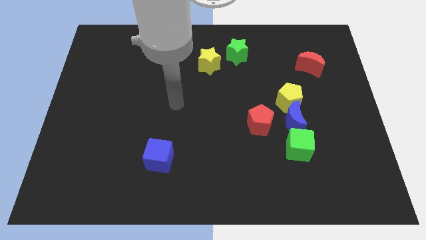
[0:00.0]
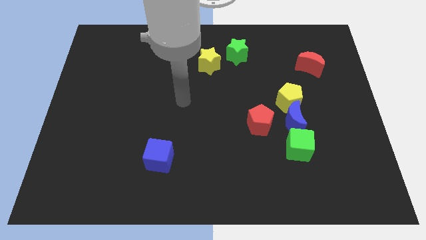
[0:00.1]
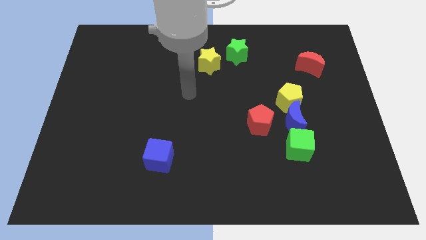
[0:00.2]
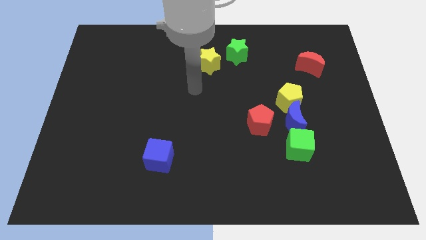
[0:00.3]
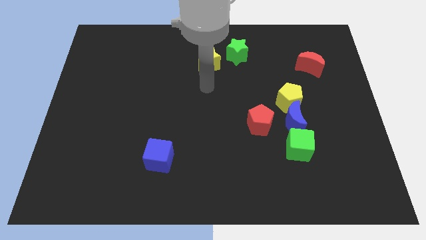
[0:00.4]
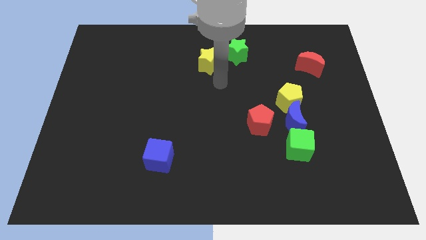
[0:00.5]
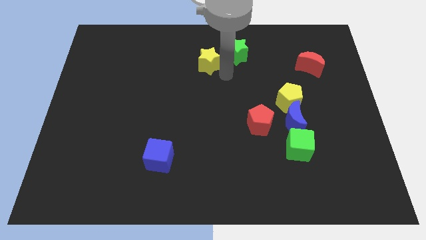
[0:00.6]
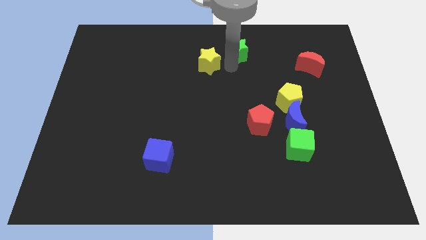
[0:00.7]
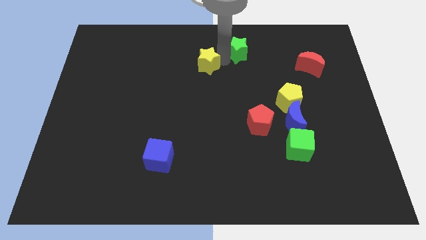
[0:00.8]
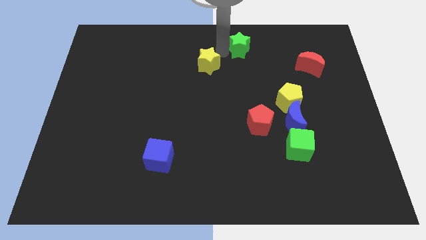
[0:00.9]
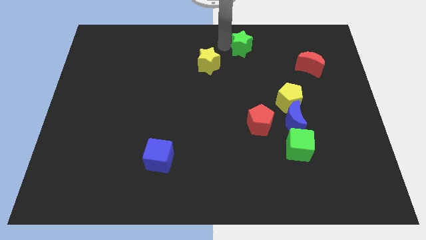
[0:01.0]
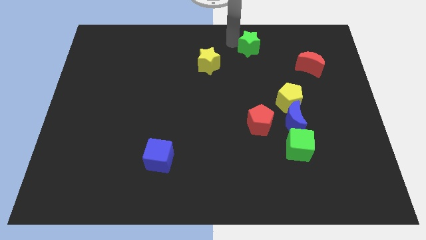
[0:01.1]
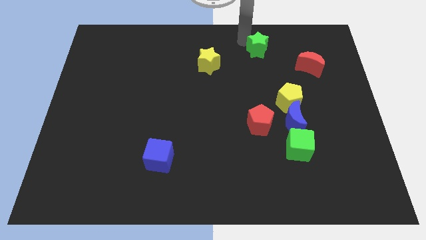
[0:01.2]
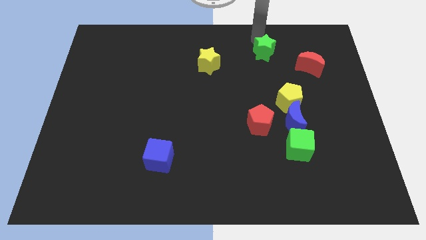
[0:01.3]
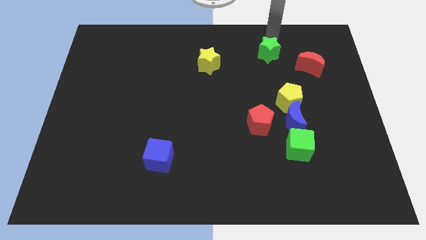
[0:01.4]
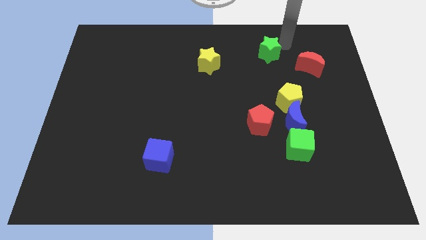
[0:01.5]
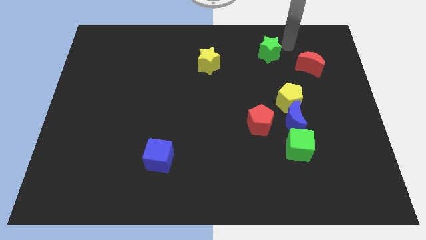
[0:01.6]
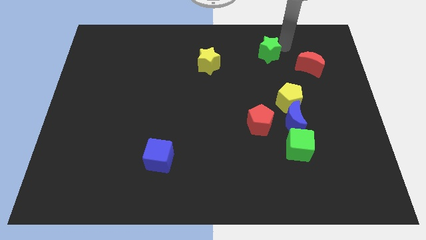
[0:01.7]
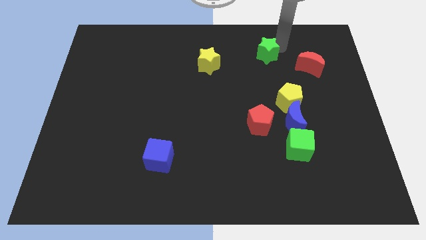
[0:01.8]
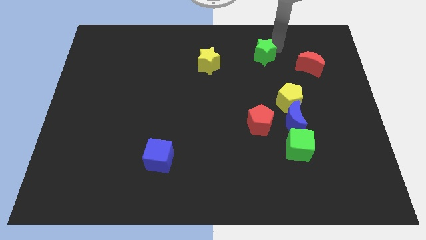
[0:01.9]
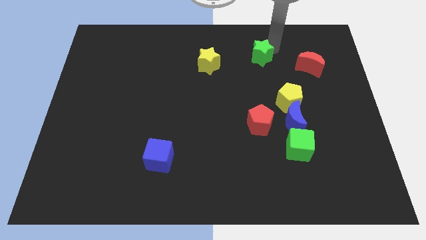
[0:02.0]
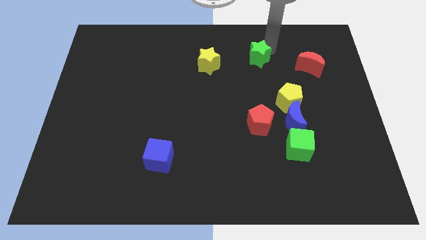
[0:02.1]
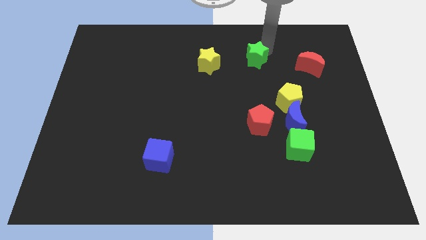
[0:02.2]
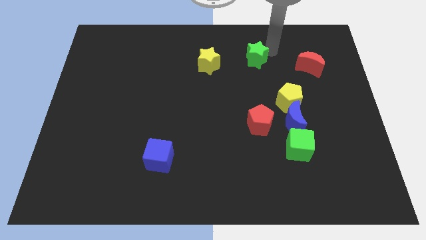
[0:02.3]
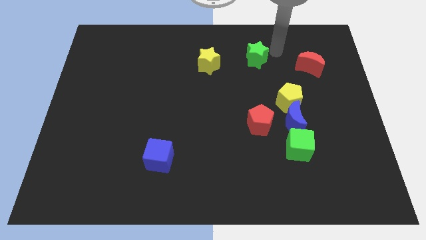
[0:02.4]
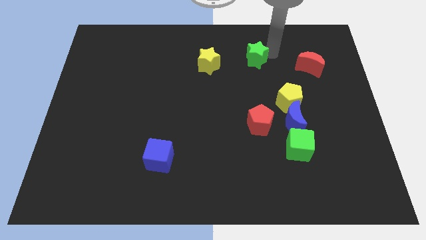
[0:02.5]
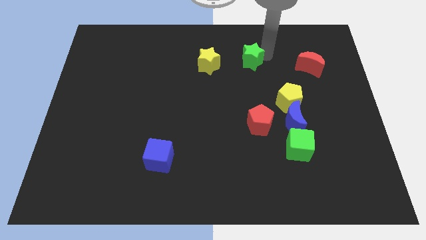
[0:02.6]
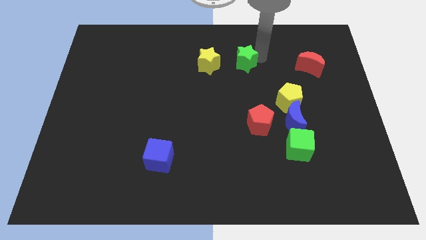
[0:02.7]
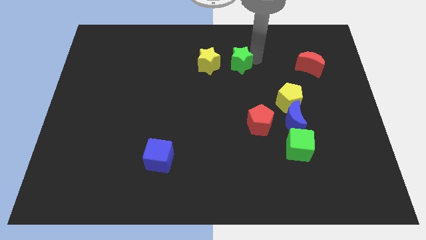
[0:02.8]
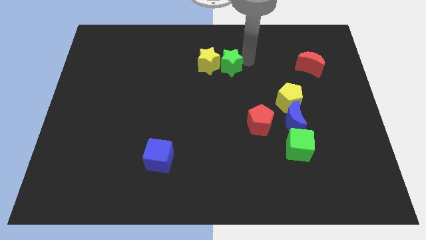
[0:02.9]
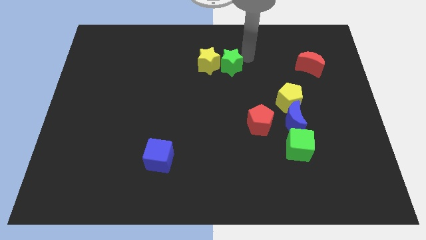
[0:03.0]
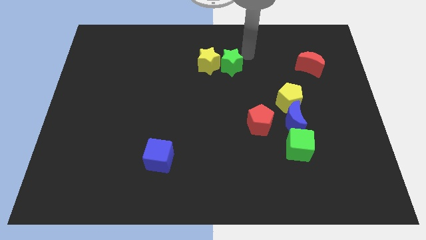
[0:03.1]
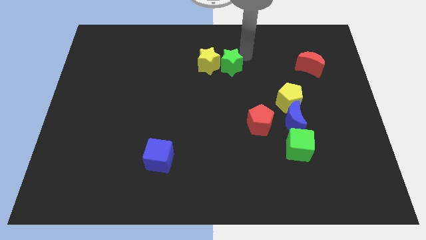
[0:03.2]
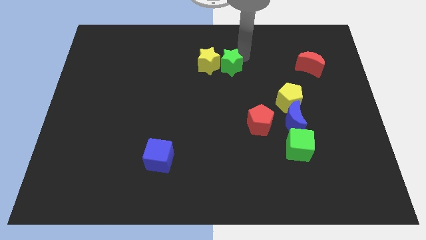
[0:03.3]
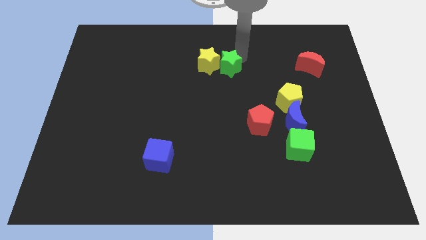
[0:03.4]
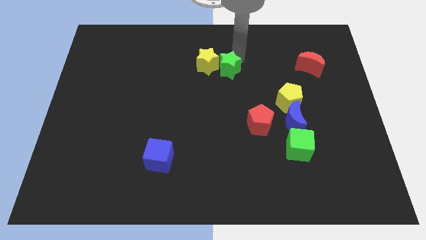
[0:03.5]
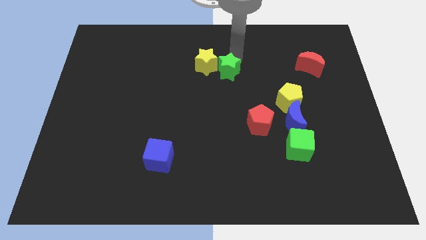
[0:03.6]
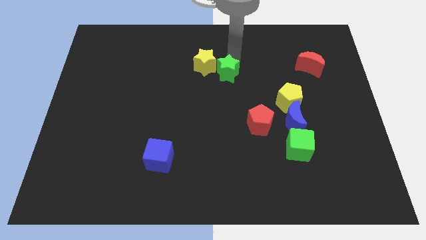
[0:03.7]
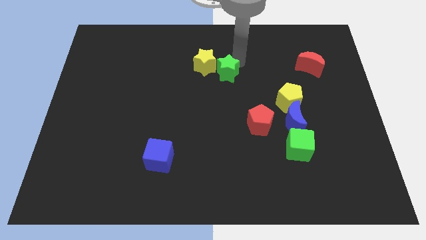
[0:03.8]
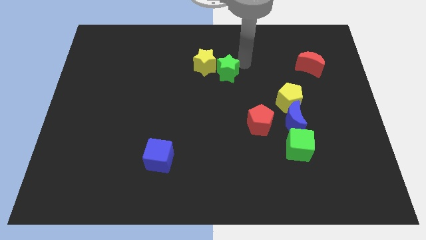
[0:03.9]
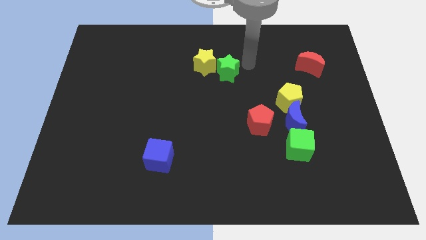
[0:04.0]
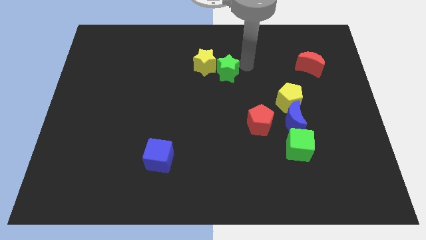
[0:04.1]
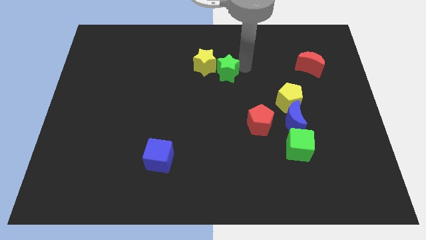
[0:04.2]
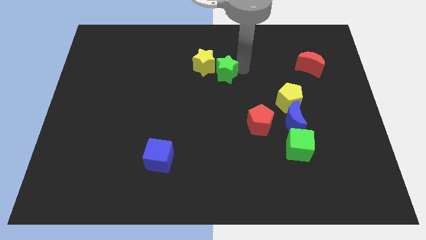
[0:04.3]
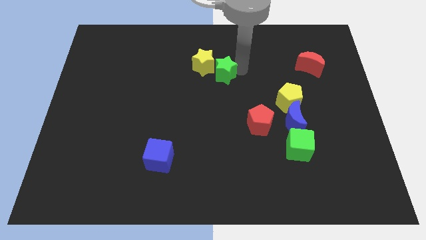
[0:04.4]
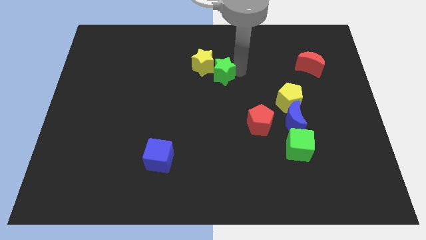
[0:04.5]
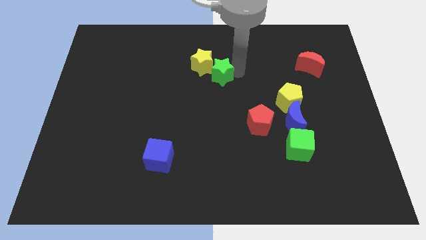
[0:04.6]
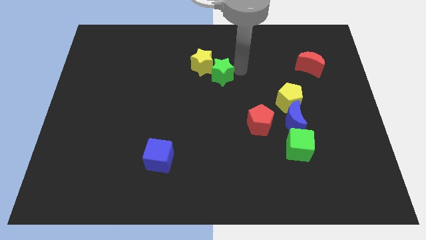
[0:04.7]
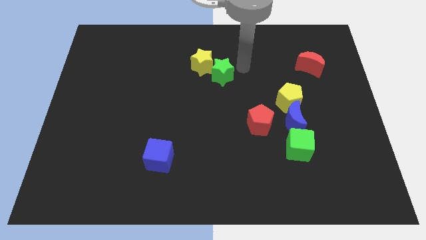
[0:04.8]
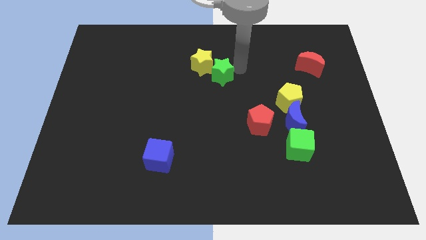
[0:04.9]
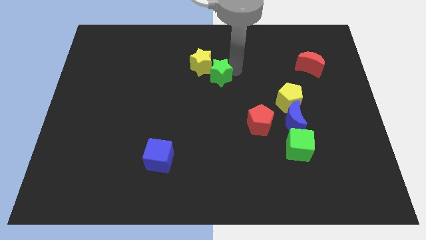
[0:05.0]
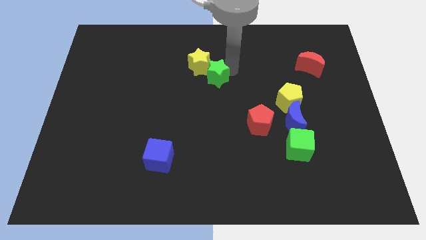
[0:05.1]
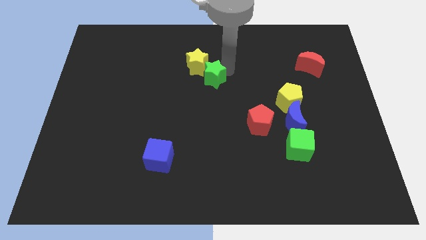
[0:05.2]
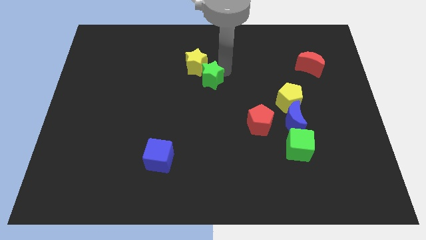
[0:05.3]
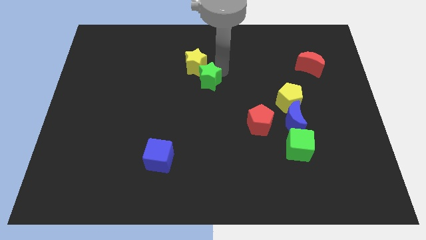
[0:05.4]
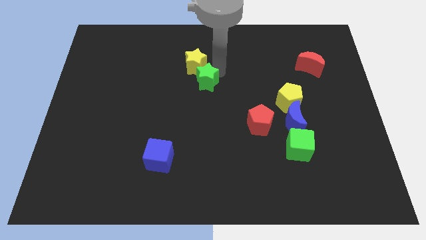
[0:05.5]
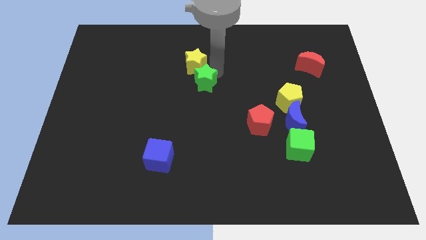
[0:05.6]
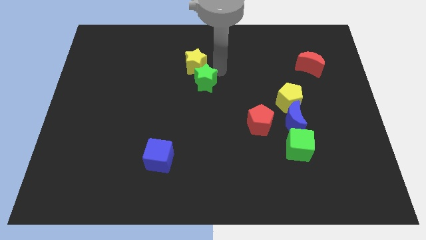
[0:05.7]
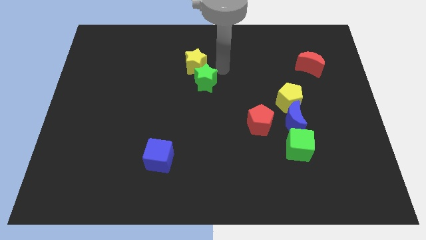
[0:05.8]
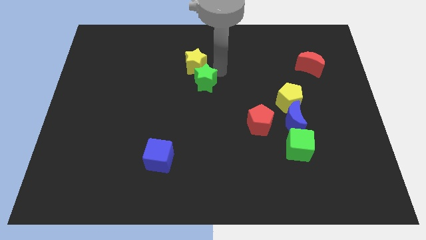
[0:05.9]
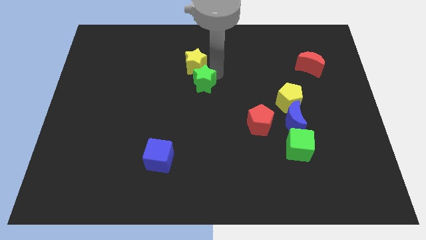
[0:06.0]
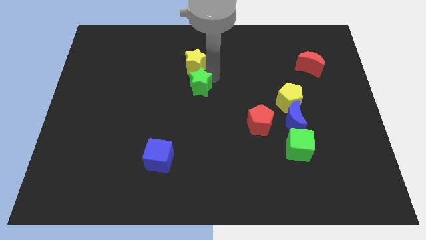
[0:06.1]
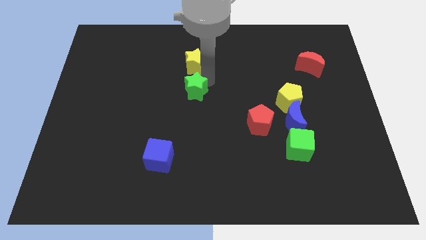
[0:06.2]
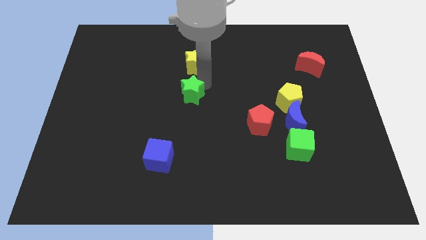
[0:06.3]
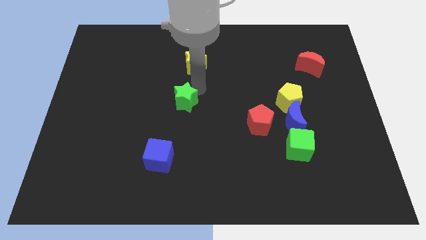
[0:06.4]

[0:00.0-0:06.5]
push the green star diagonally down and left

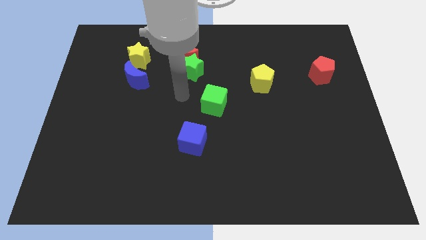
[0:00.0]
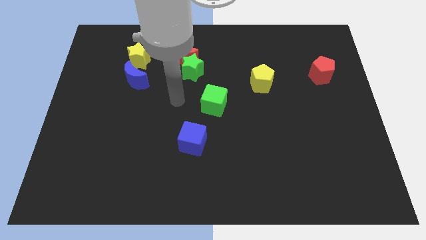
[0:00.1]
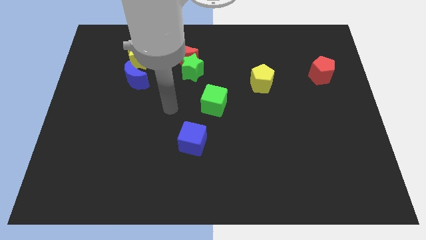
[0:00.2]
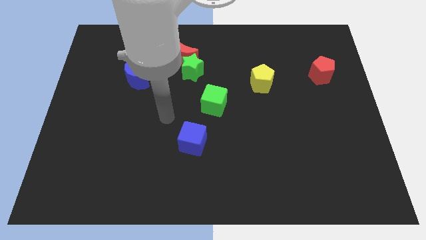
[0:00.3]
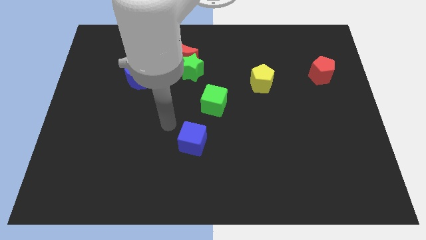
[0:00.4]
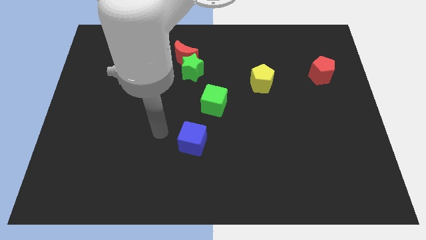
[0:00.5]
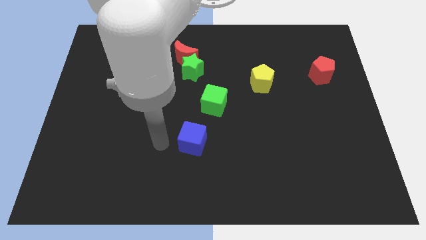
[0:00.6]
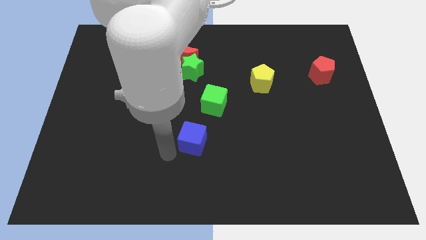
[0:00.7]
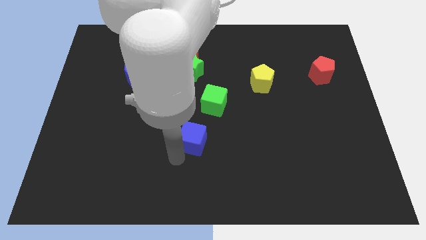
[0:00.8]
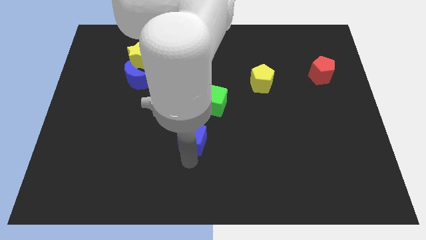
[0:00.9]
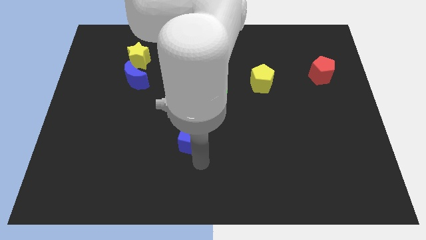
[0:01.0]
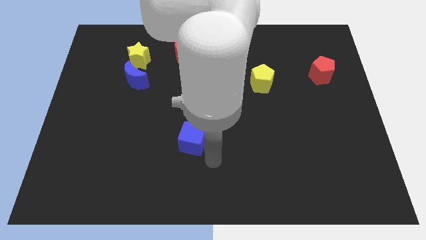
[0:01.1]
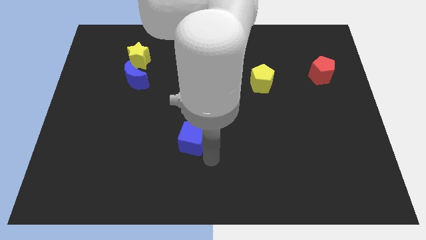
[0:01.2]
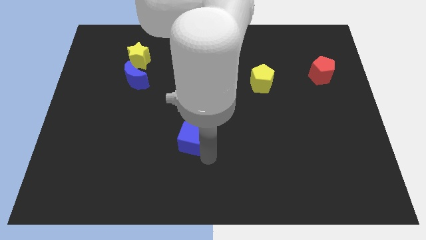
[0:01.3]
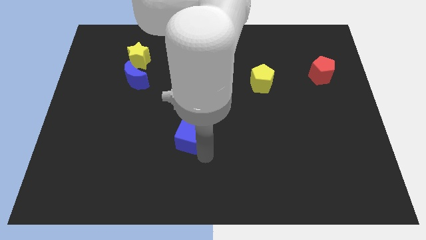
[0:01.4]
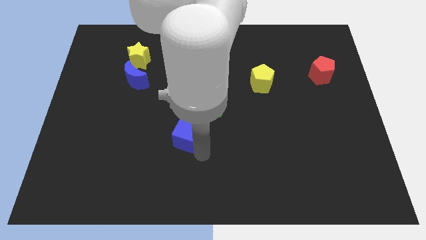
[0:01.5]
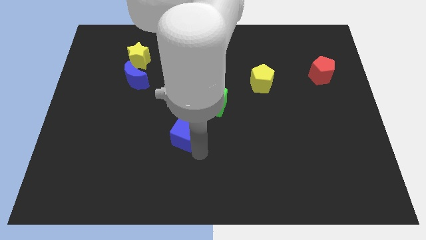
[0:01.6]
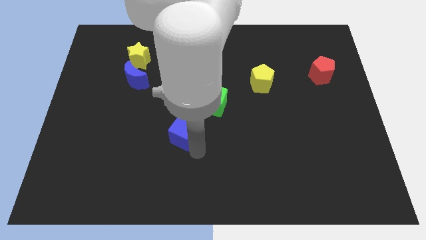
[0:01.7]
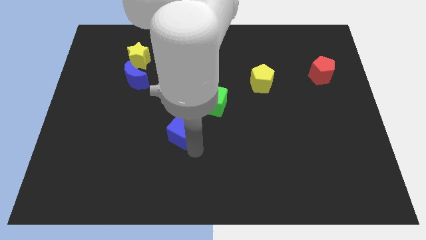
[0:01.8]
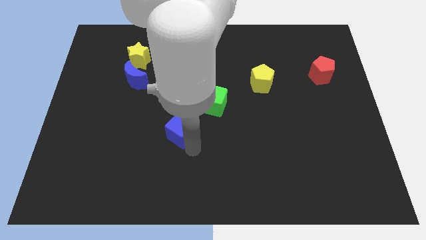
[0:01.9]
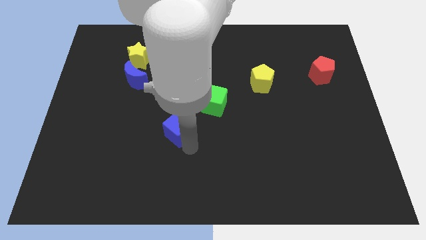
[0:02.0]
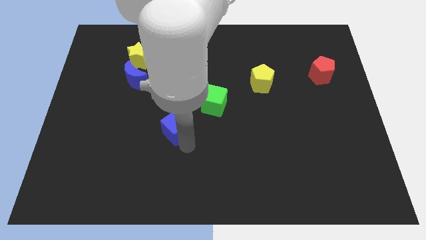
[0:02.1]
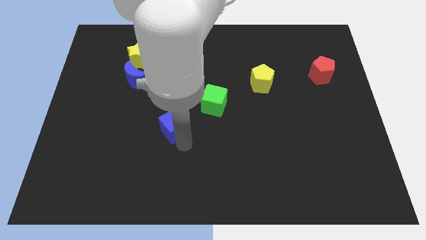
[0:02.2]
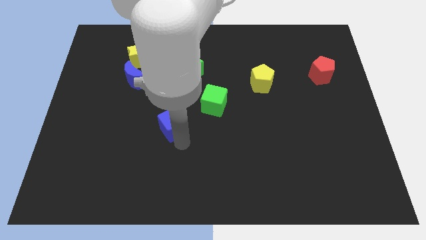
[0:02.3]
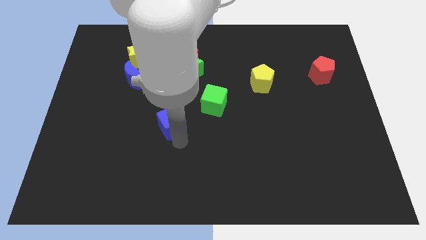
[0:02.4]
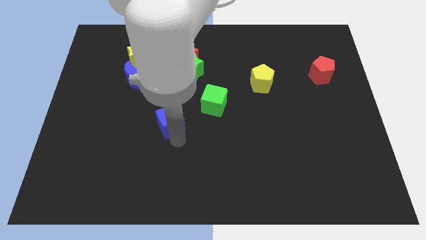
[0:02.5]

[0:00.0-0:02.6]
slide the blue cube upwards and left a bit
